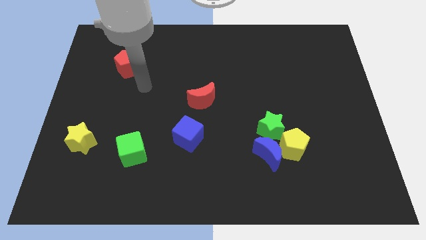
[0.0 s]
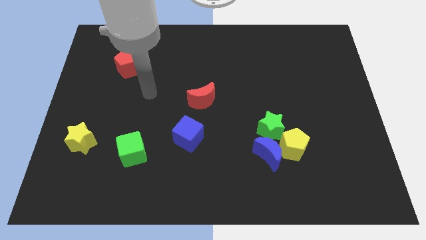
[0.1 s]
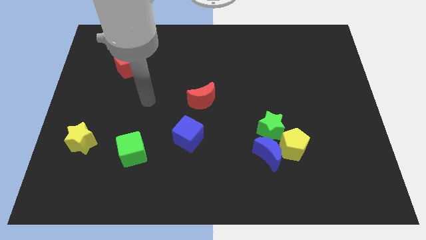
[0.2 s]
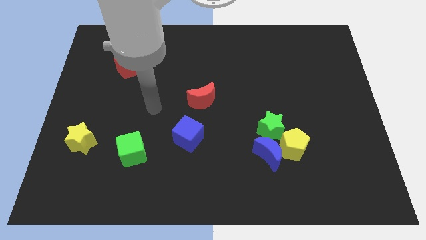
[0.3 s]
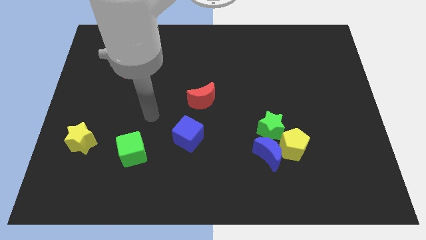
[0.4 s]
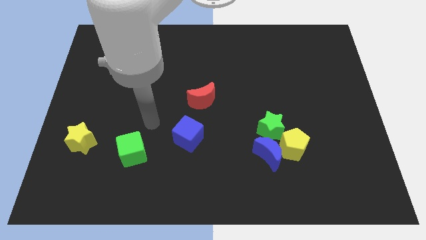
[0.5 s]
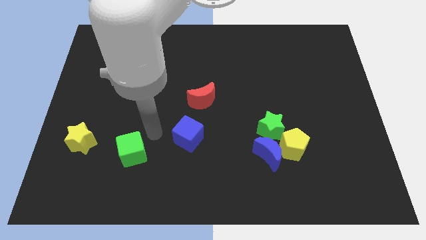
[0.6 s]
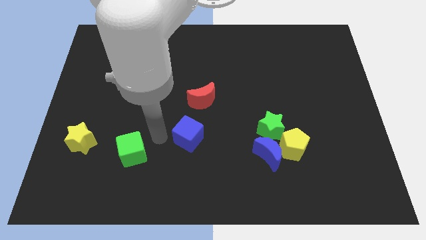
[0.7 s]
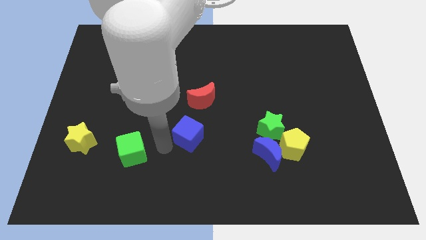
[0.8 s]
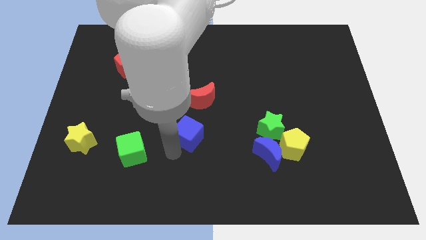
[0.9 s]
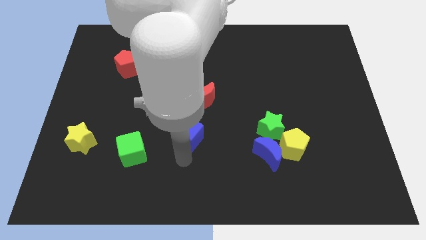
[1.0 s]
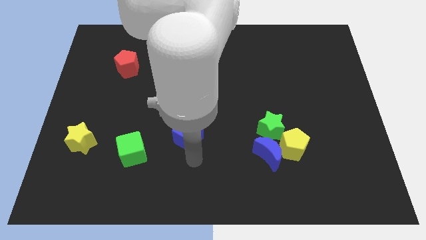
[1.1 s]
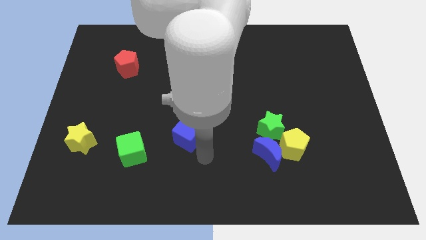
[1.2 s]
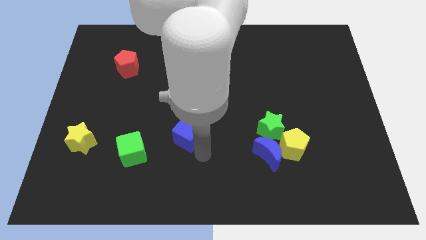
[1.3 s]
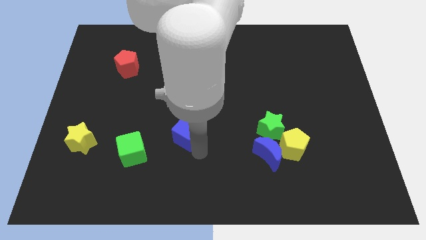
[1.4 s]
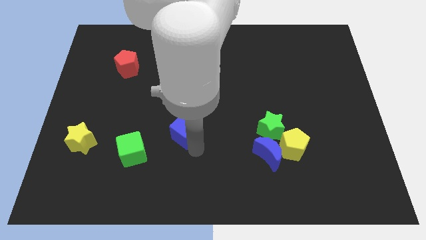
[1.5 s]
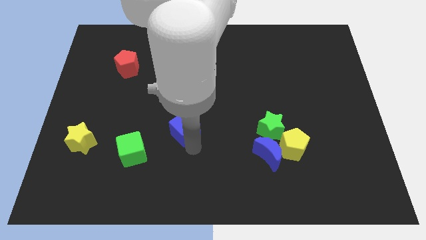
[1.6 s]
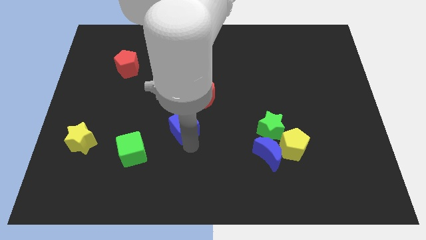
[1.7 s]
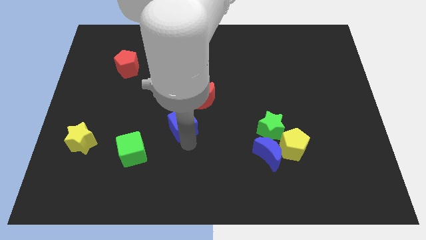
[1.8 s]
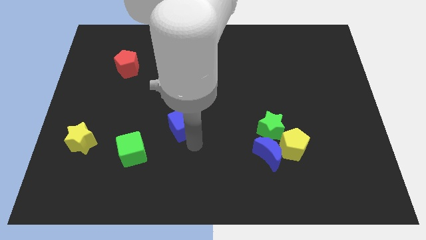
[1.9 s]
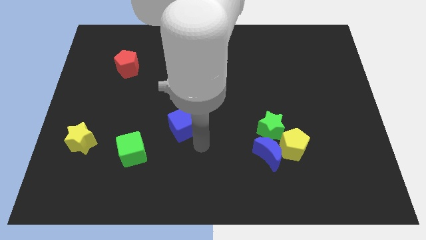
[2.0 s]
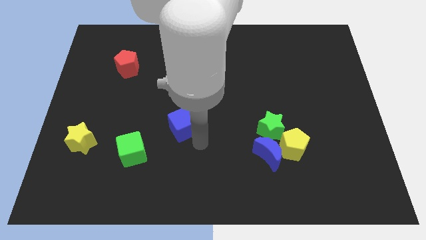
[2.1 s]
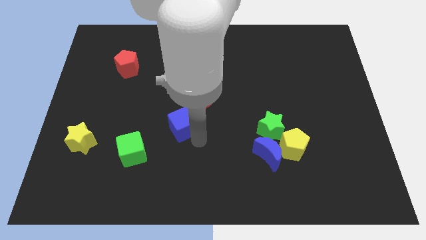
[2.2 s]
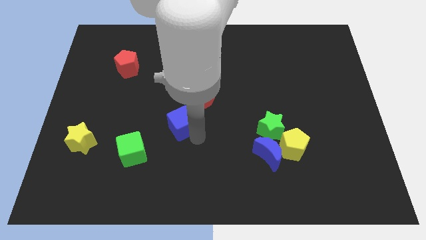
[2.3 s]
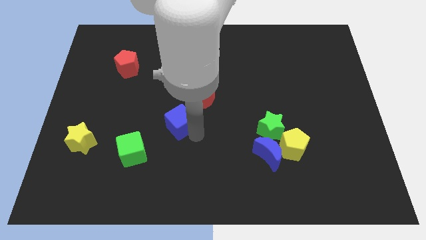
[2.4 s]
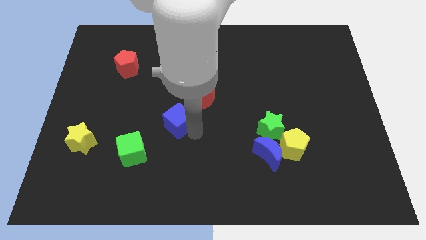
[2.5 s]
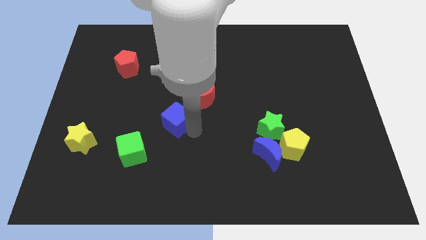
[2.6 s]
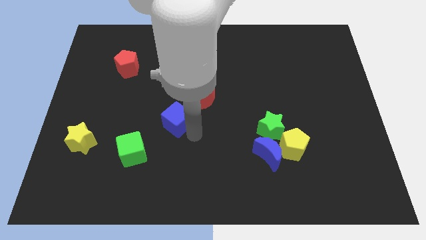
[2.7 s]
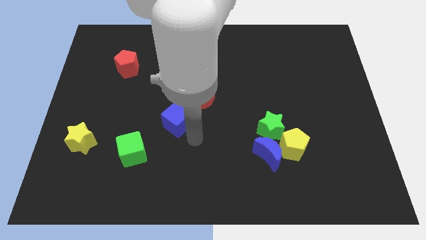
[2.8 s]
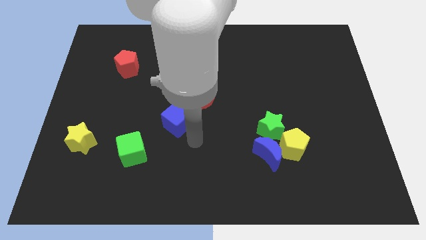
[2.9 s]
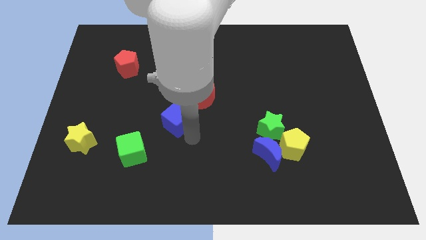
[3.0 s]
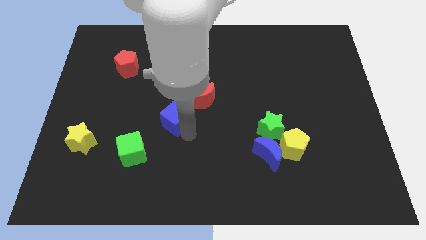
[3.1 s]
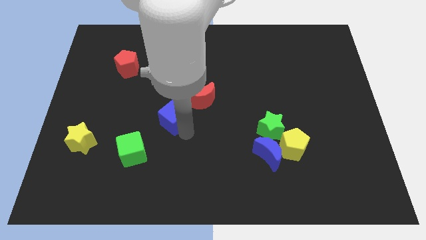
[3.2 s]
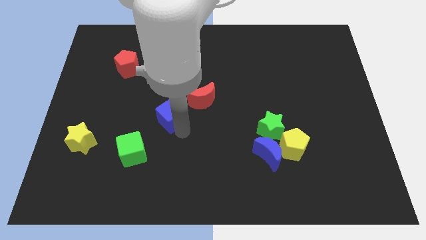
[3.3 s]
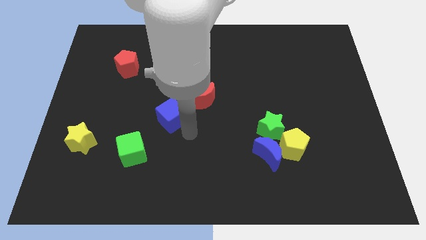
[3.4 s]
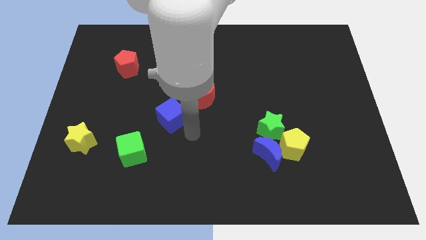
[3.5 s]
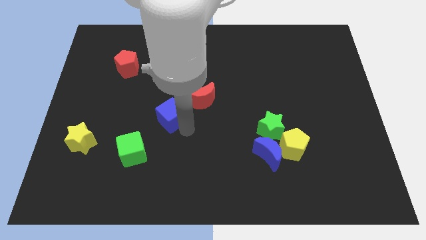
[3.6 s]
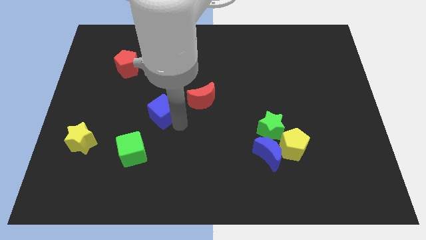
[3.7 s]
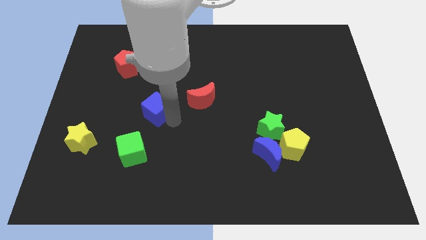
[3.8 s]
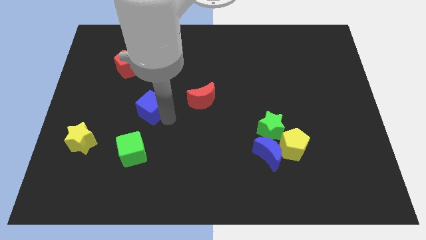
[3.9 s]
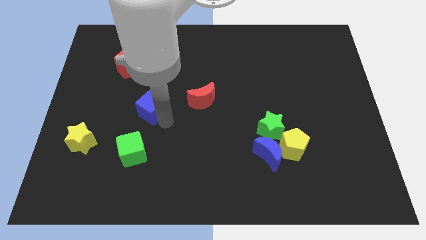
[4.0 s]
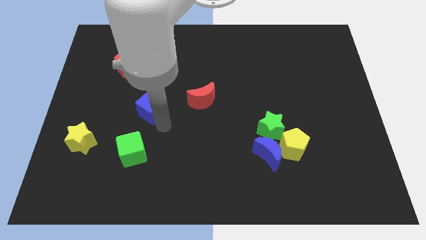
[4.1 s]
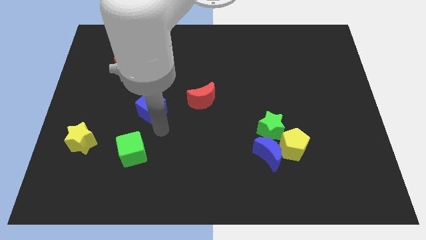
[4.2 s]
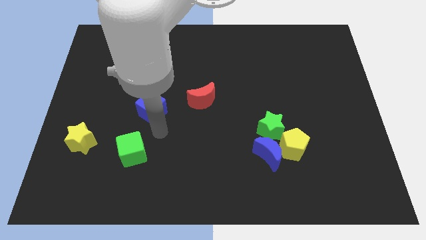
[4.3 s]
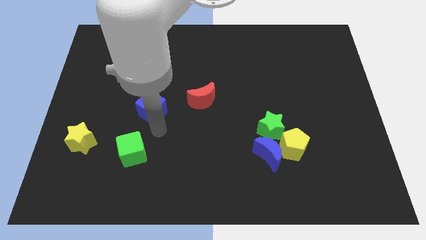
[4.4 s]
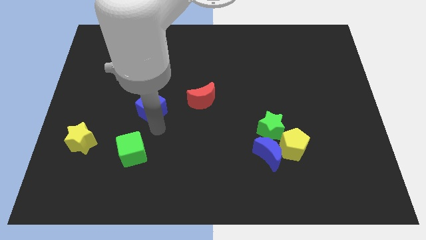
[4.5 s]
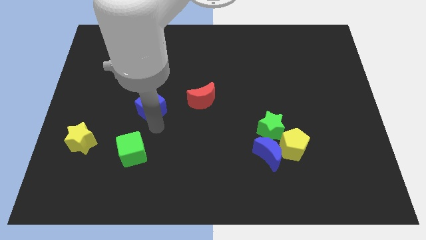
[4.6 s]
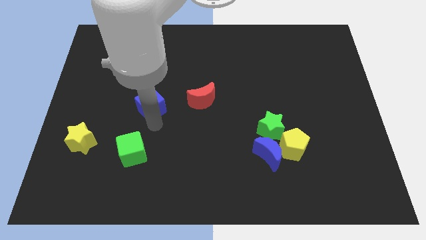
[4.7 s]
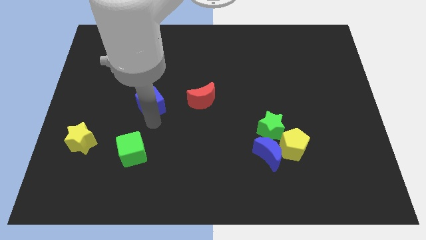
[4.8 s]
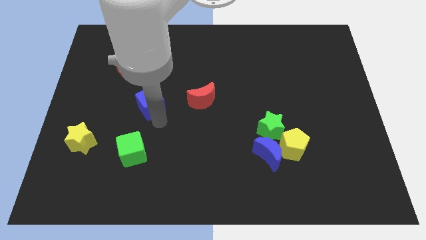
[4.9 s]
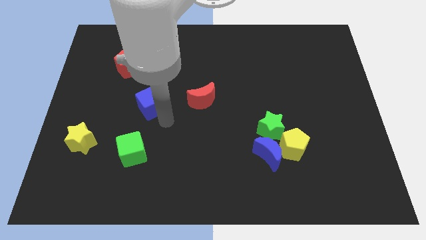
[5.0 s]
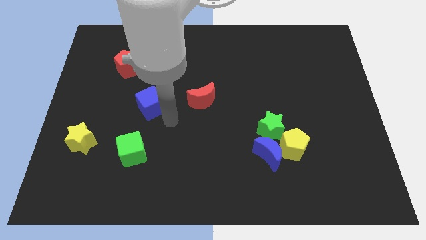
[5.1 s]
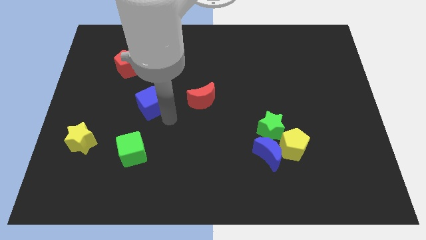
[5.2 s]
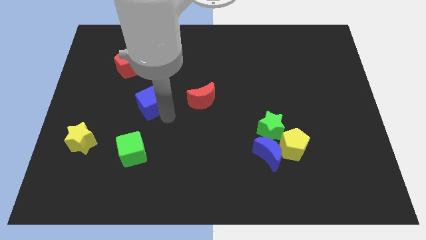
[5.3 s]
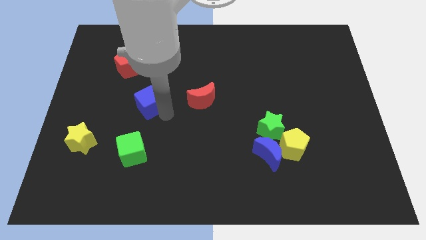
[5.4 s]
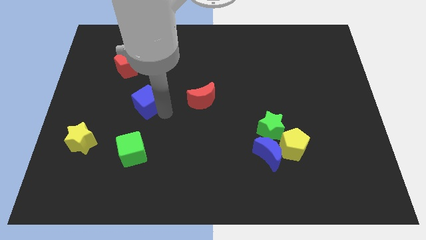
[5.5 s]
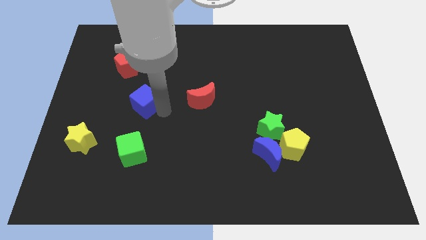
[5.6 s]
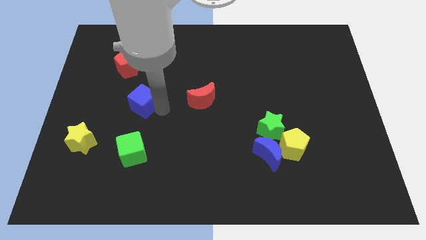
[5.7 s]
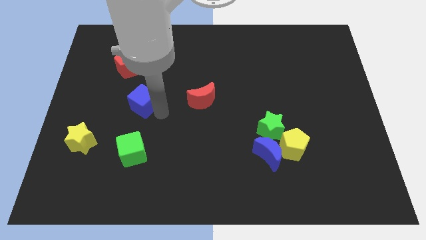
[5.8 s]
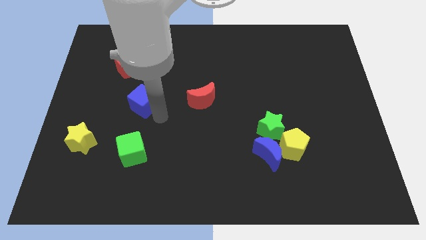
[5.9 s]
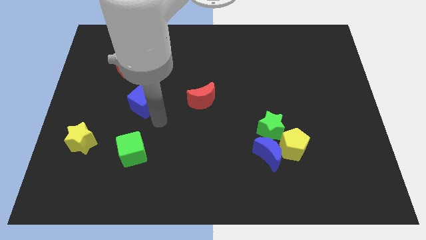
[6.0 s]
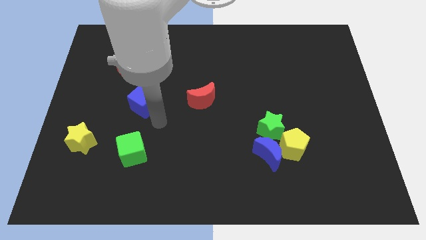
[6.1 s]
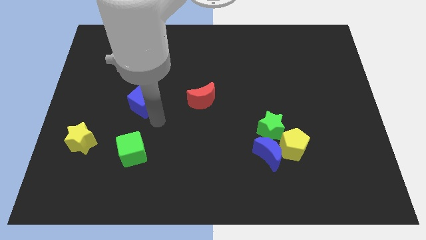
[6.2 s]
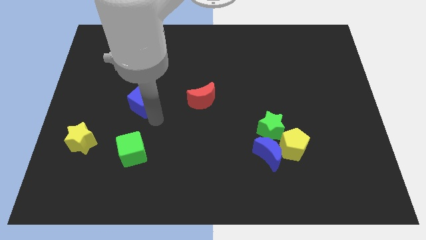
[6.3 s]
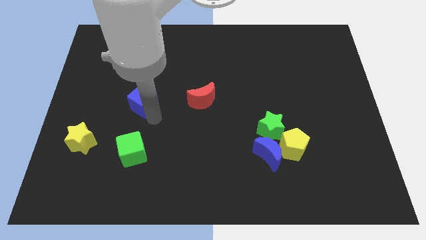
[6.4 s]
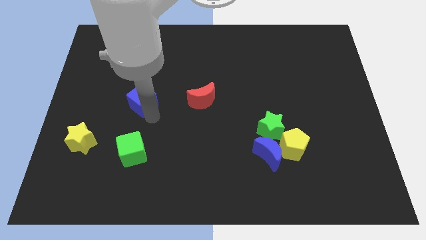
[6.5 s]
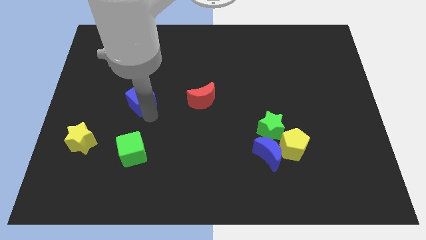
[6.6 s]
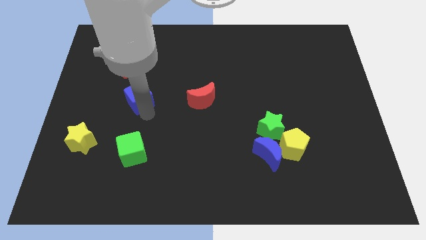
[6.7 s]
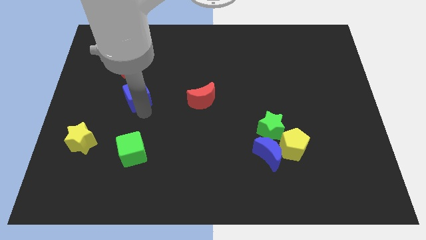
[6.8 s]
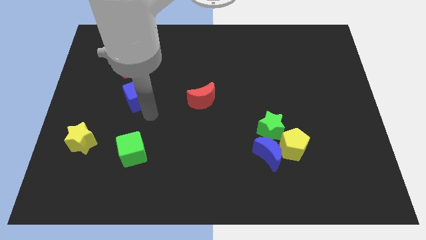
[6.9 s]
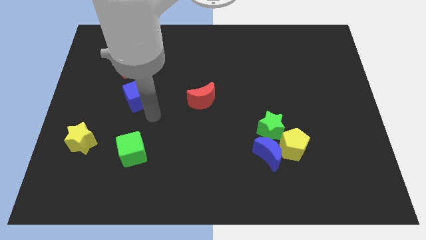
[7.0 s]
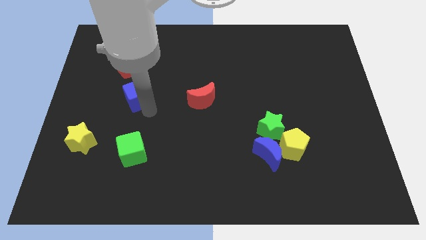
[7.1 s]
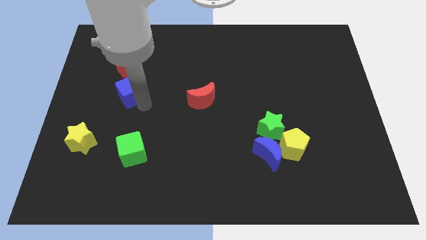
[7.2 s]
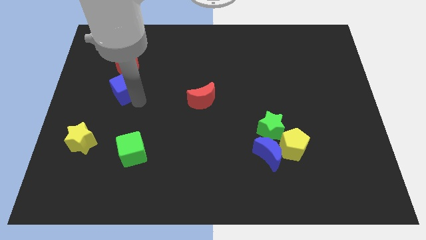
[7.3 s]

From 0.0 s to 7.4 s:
push the blue cube up and left diagonally

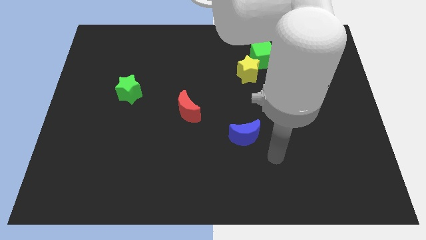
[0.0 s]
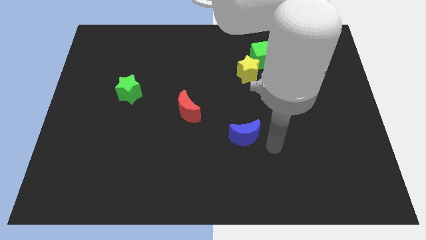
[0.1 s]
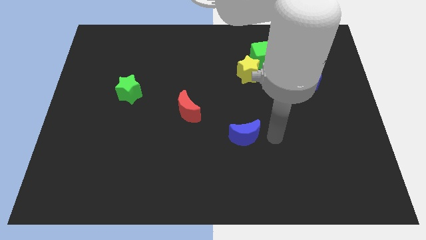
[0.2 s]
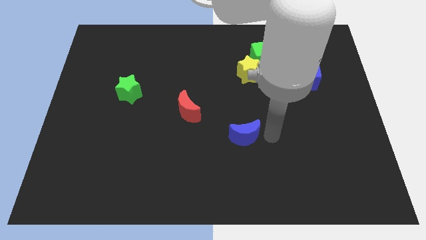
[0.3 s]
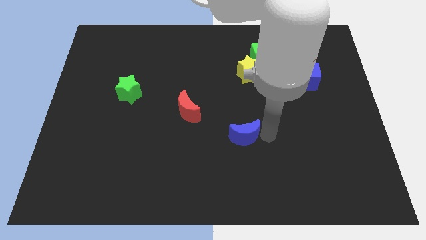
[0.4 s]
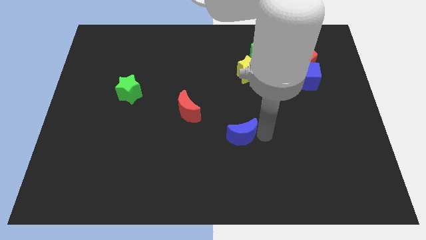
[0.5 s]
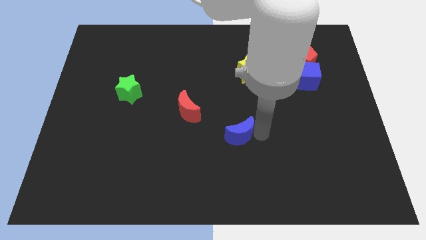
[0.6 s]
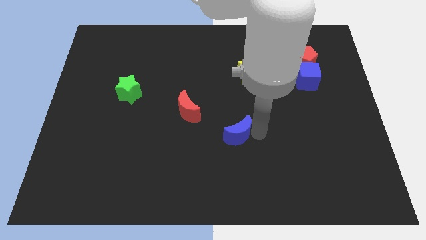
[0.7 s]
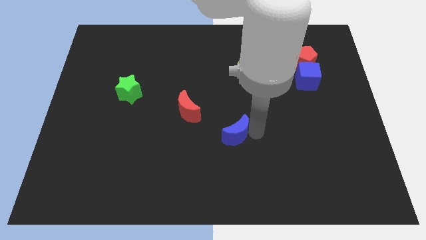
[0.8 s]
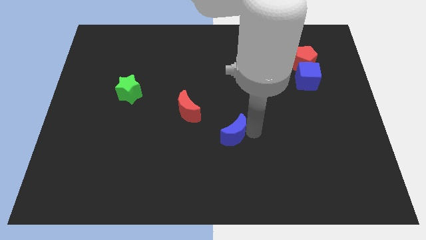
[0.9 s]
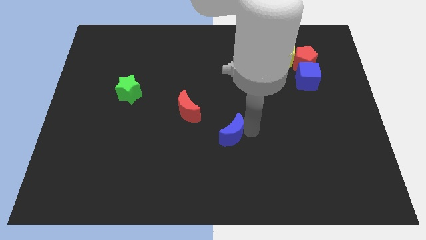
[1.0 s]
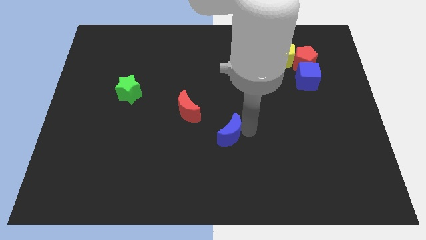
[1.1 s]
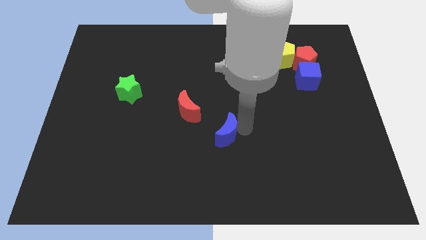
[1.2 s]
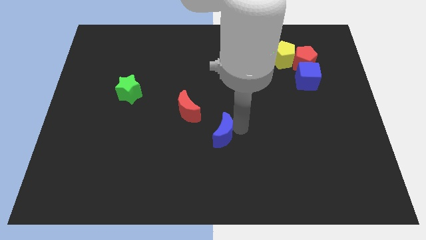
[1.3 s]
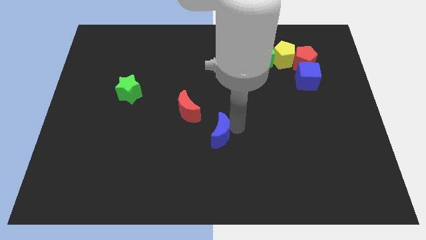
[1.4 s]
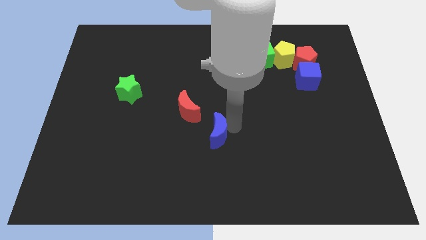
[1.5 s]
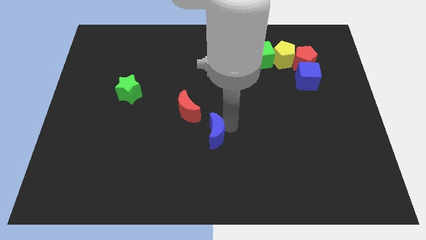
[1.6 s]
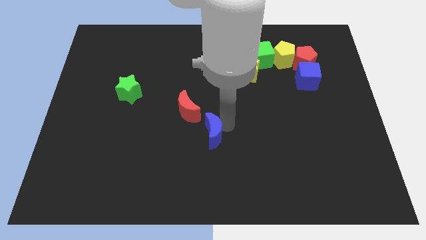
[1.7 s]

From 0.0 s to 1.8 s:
slightly move the blue moon to the left
